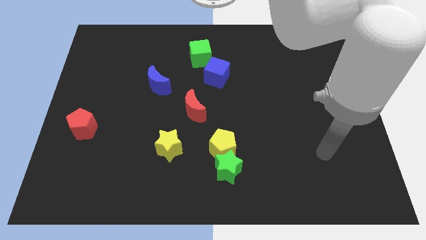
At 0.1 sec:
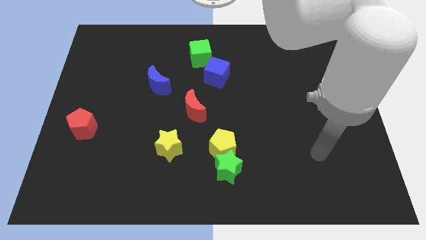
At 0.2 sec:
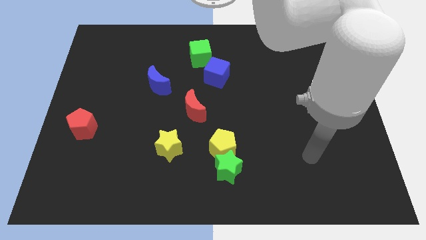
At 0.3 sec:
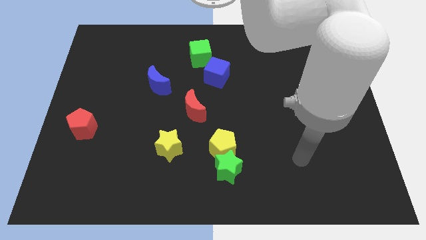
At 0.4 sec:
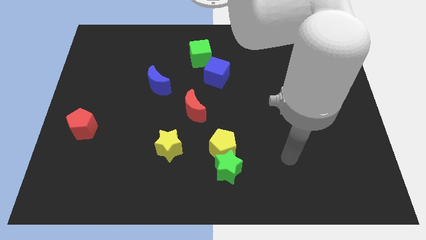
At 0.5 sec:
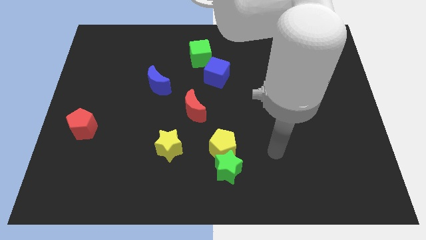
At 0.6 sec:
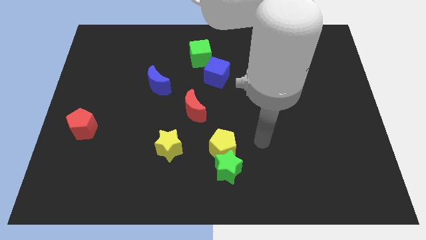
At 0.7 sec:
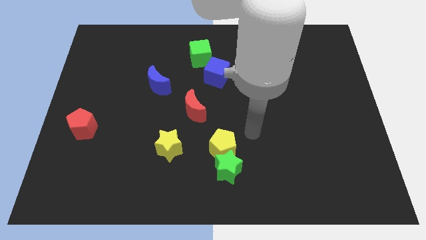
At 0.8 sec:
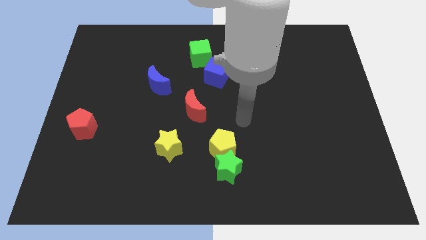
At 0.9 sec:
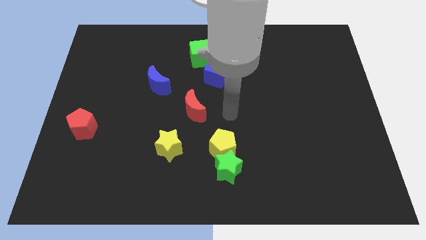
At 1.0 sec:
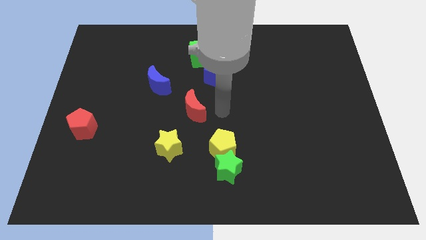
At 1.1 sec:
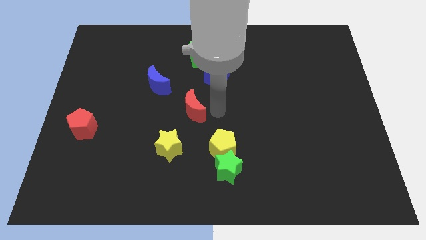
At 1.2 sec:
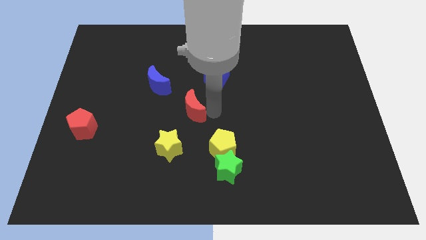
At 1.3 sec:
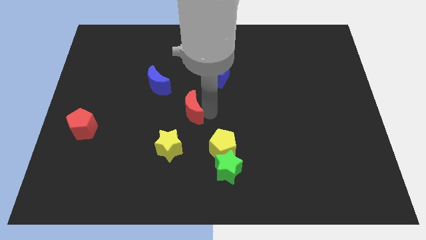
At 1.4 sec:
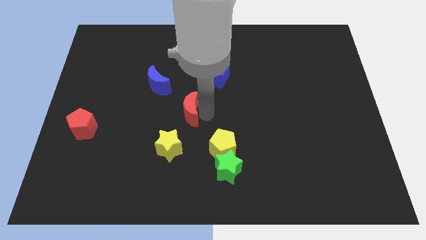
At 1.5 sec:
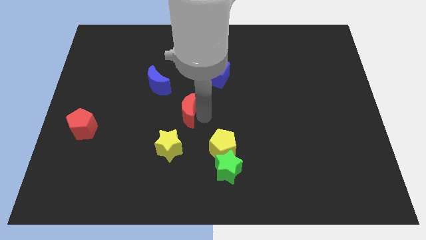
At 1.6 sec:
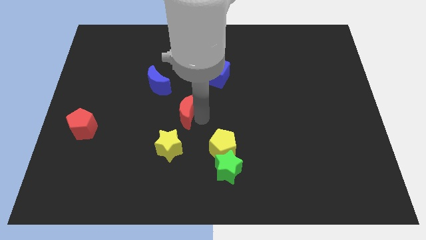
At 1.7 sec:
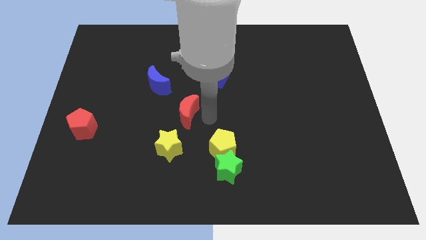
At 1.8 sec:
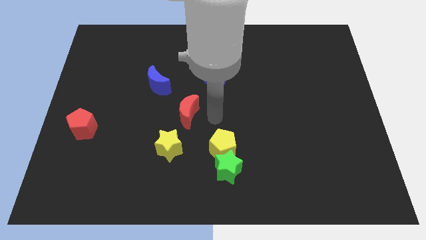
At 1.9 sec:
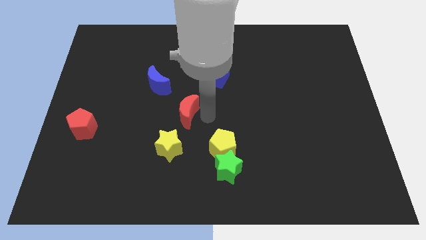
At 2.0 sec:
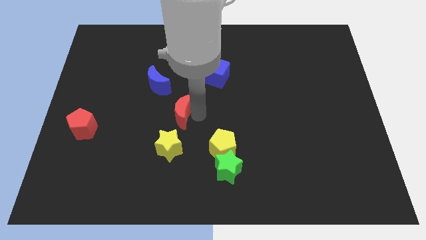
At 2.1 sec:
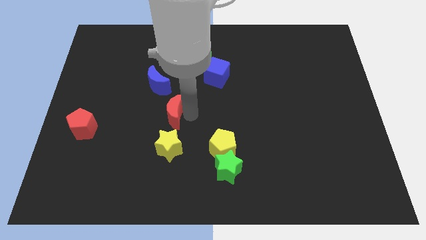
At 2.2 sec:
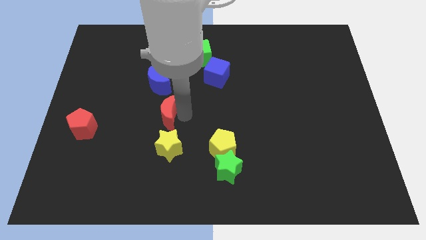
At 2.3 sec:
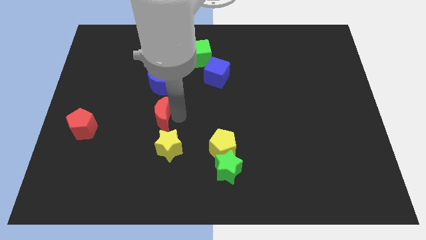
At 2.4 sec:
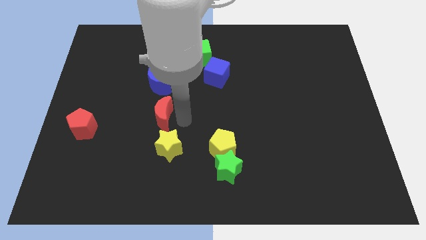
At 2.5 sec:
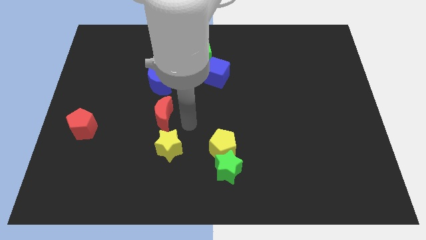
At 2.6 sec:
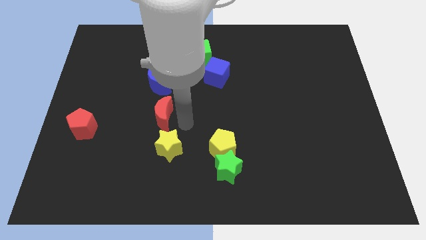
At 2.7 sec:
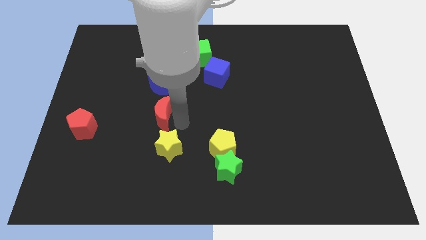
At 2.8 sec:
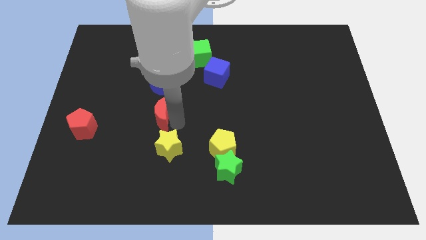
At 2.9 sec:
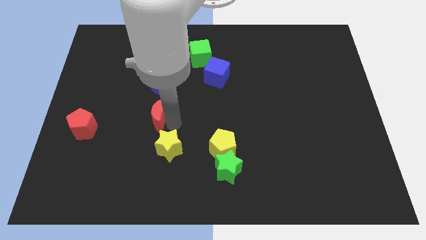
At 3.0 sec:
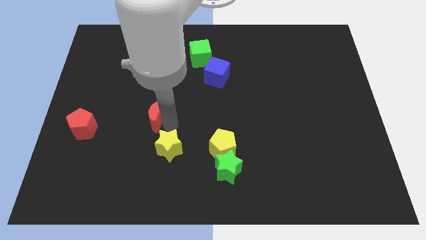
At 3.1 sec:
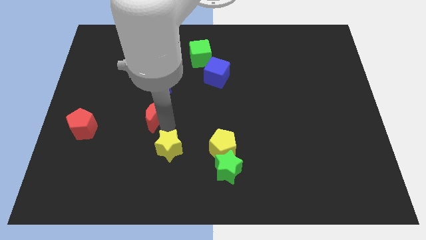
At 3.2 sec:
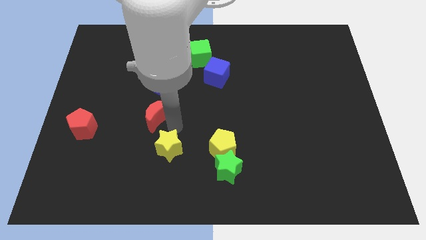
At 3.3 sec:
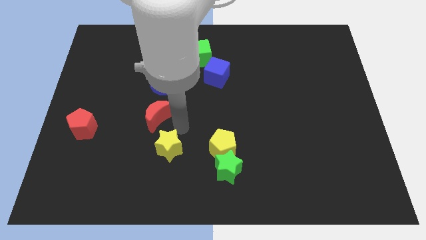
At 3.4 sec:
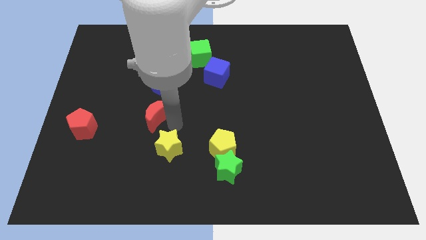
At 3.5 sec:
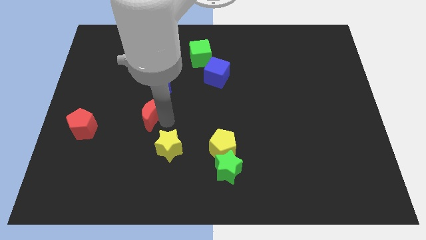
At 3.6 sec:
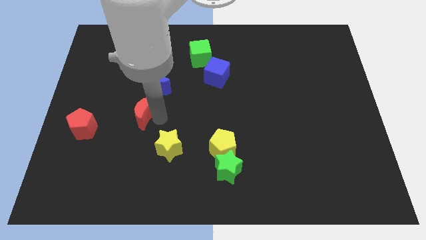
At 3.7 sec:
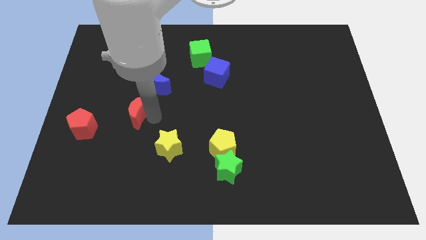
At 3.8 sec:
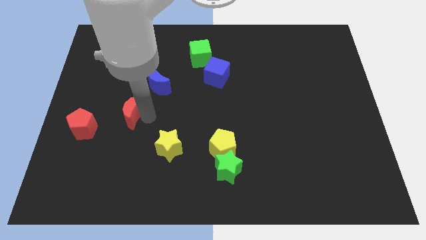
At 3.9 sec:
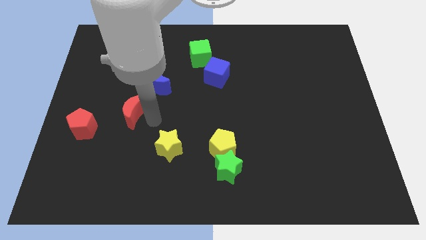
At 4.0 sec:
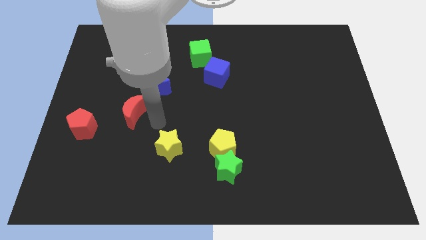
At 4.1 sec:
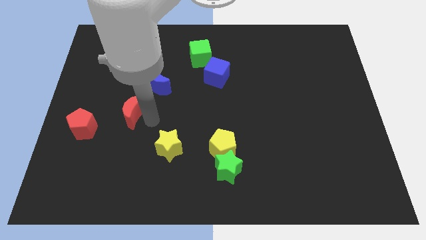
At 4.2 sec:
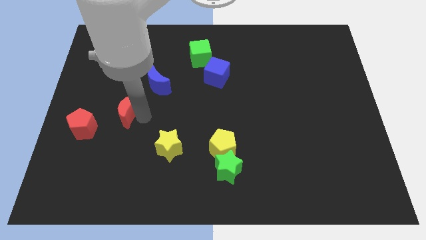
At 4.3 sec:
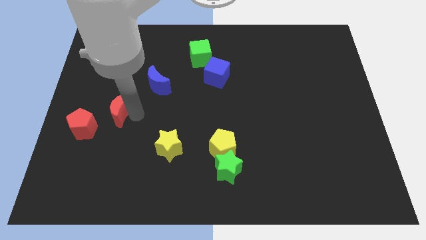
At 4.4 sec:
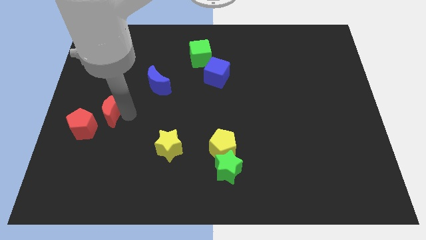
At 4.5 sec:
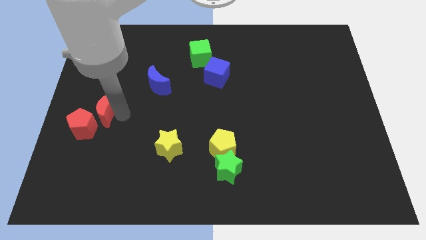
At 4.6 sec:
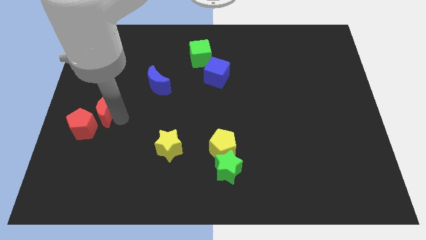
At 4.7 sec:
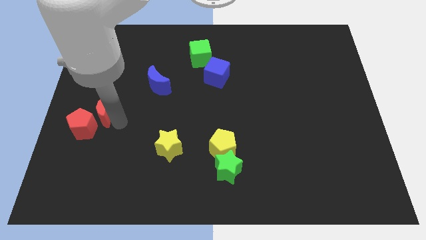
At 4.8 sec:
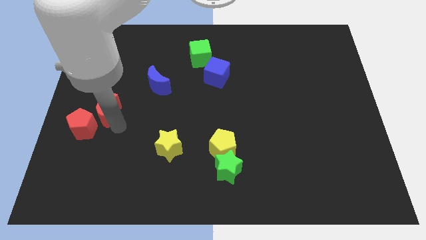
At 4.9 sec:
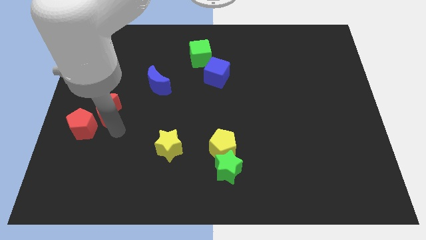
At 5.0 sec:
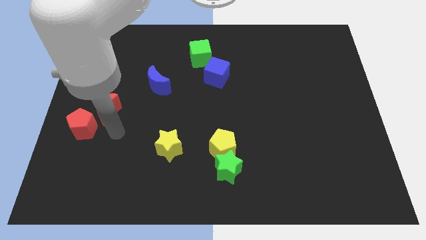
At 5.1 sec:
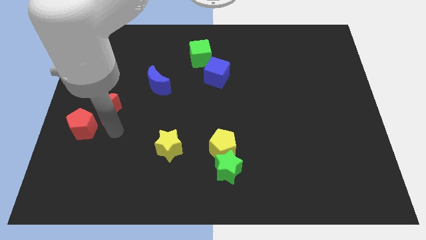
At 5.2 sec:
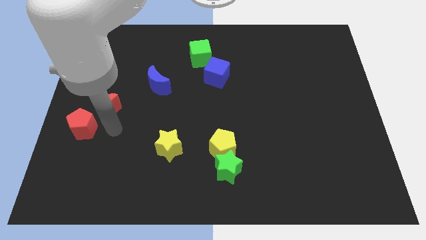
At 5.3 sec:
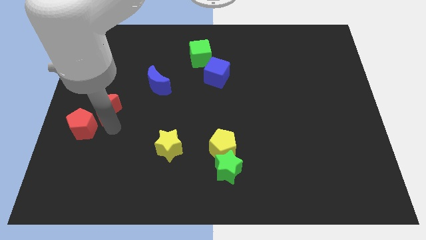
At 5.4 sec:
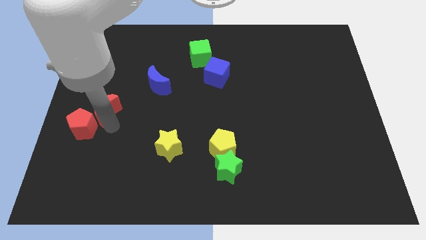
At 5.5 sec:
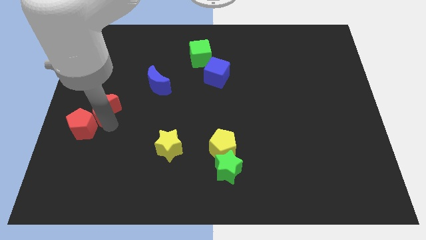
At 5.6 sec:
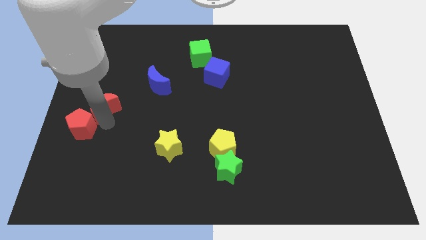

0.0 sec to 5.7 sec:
push the red moon to the left side

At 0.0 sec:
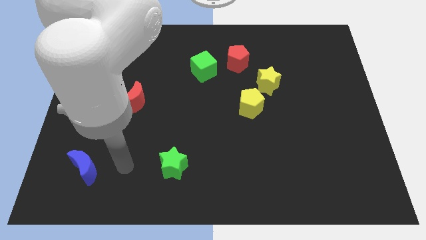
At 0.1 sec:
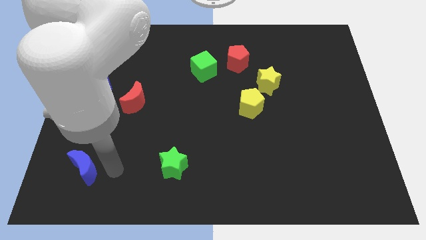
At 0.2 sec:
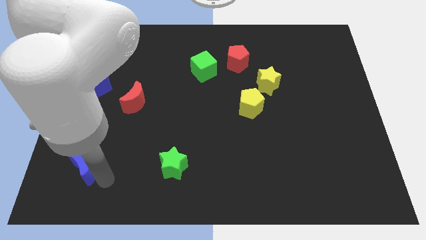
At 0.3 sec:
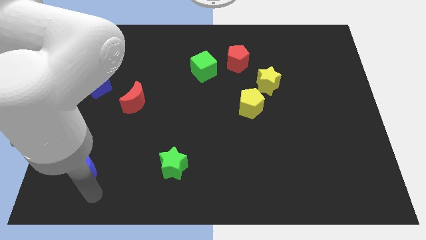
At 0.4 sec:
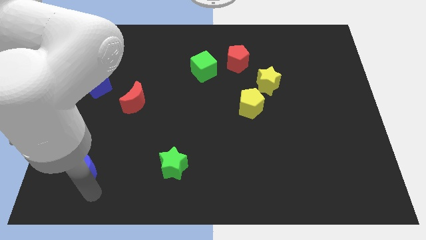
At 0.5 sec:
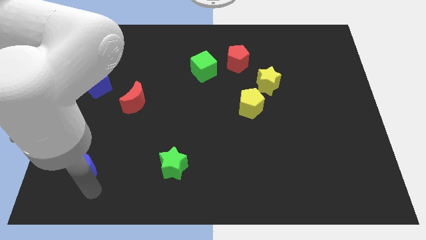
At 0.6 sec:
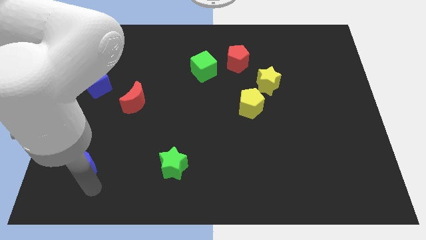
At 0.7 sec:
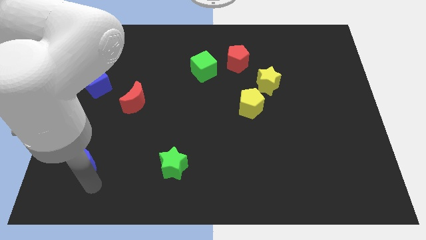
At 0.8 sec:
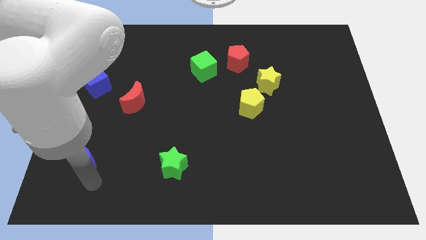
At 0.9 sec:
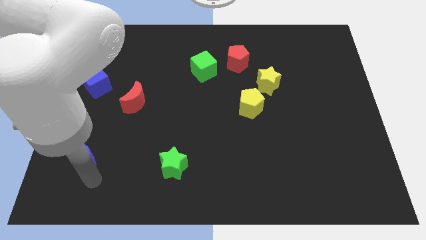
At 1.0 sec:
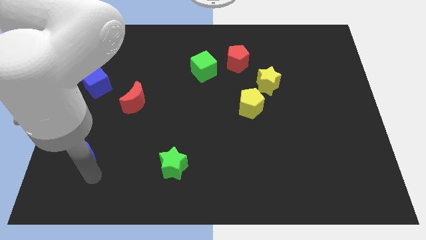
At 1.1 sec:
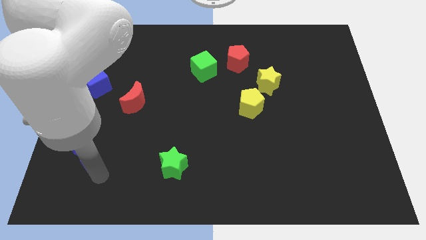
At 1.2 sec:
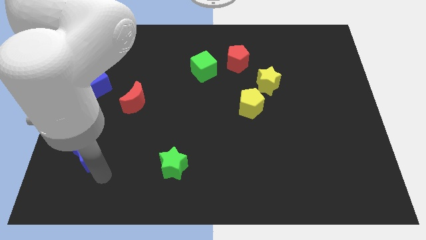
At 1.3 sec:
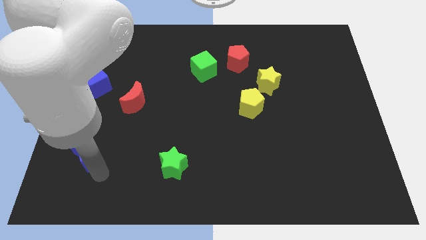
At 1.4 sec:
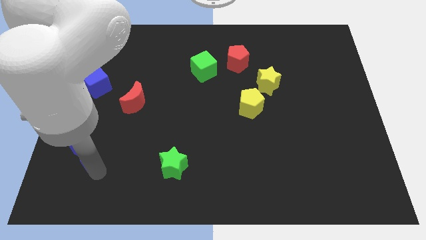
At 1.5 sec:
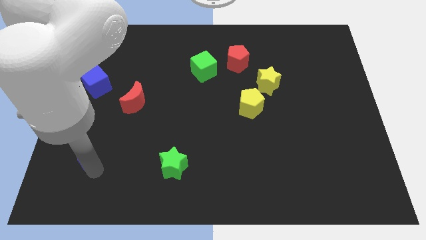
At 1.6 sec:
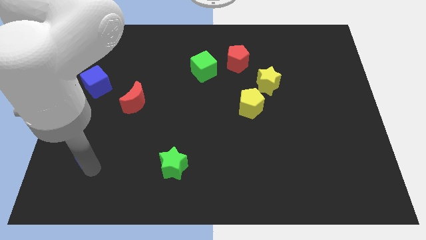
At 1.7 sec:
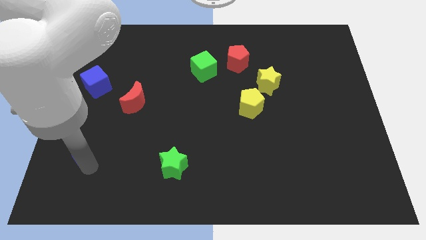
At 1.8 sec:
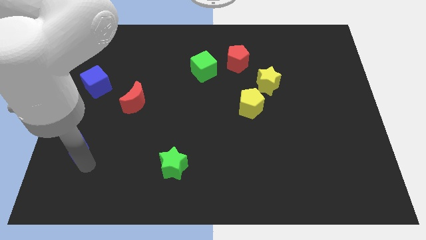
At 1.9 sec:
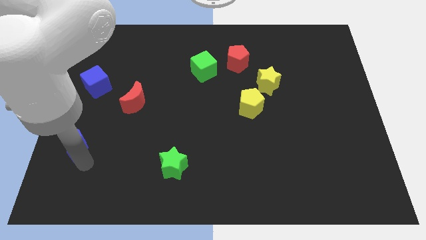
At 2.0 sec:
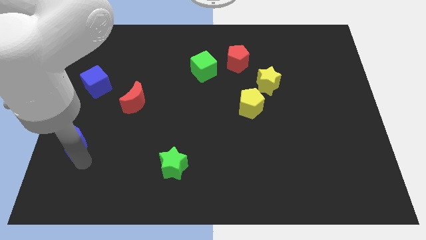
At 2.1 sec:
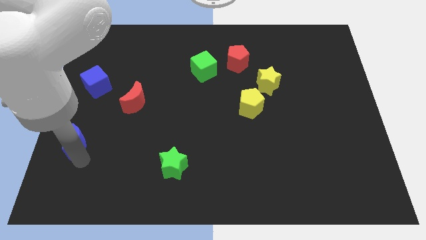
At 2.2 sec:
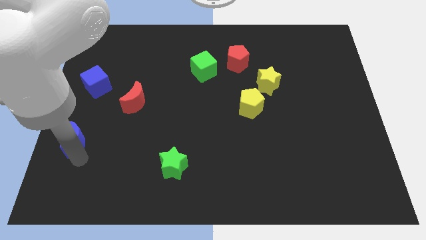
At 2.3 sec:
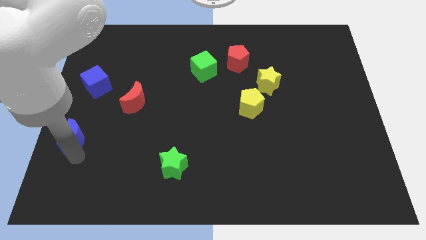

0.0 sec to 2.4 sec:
push the blue moon to the center left
